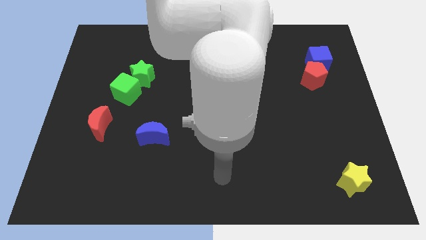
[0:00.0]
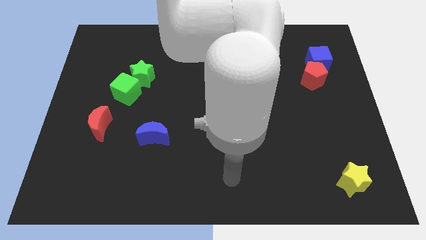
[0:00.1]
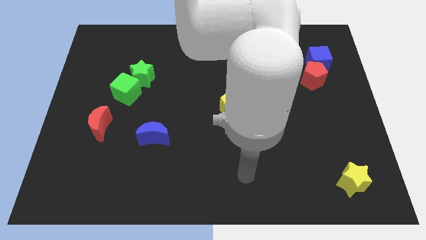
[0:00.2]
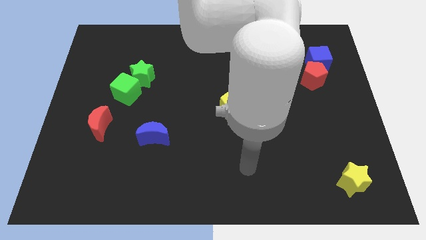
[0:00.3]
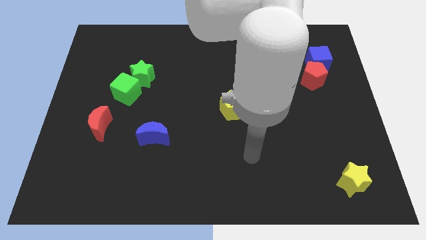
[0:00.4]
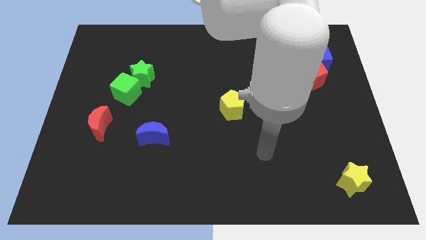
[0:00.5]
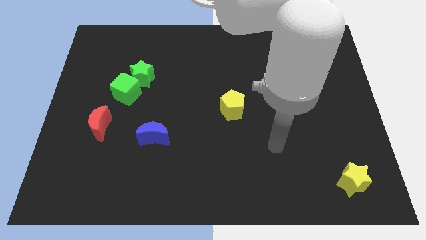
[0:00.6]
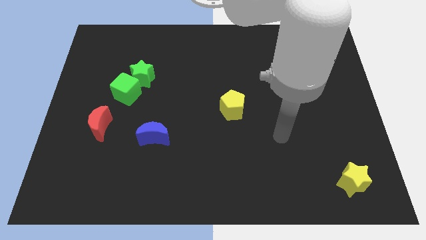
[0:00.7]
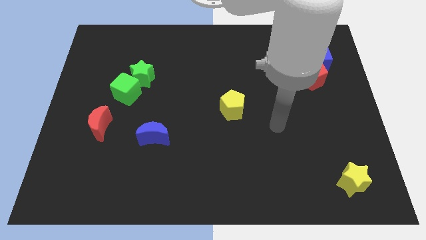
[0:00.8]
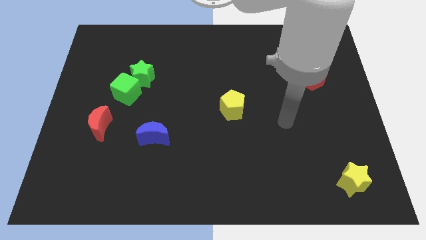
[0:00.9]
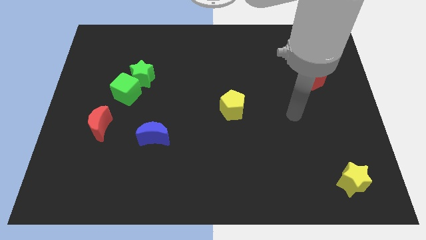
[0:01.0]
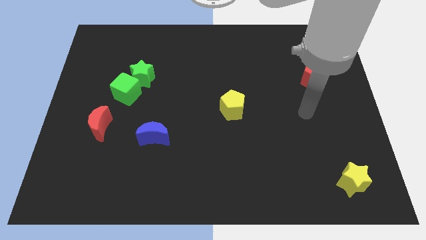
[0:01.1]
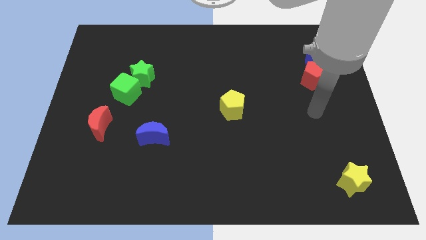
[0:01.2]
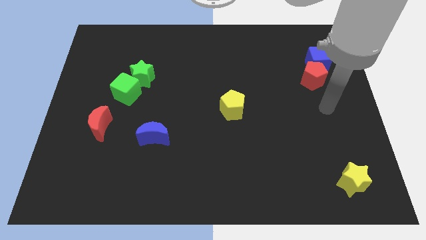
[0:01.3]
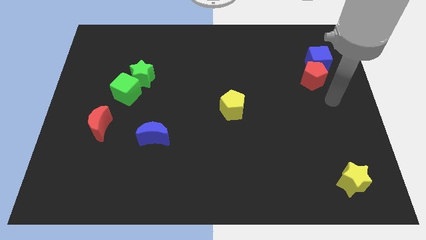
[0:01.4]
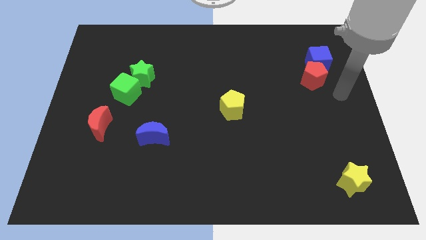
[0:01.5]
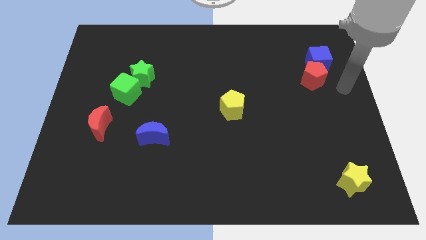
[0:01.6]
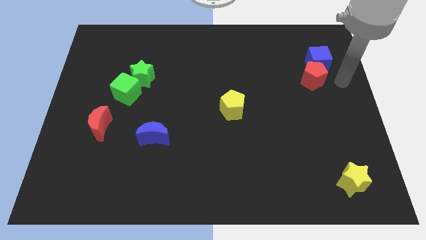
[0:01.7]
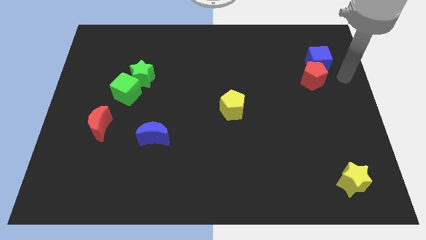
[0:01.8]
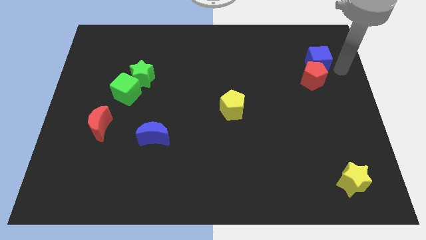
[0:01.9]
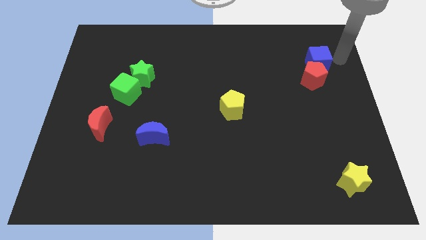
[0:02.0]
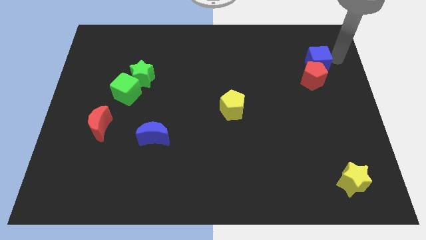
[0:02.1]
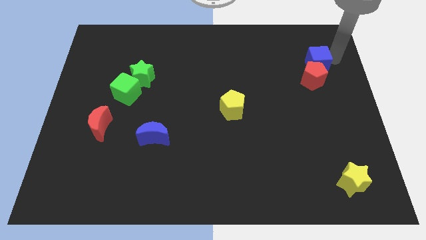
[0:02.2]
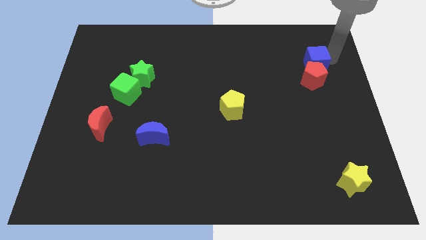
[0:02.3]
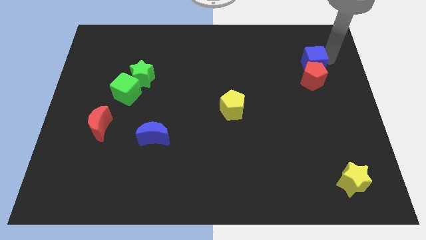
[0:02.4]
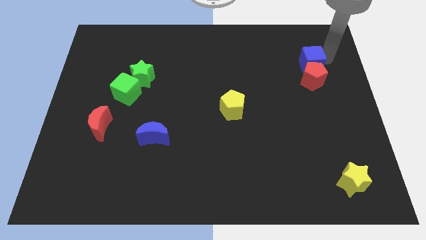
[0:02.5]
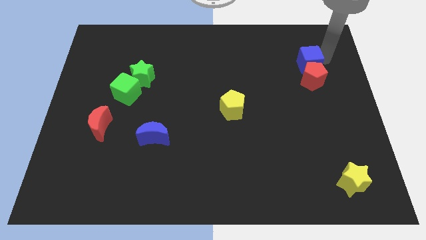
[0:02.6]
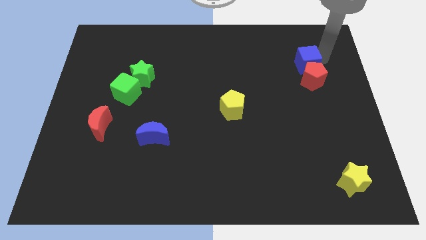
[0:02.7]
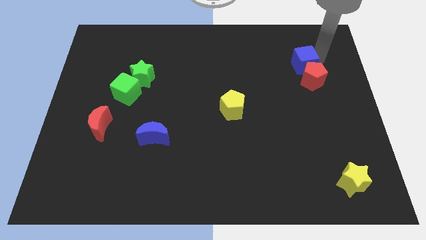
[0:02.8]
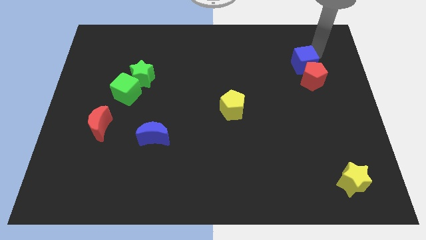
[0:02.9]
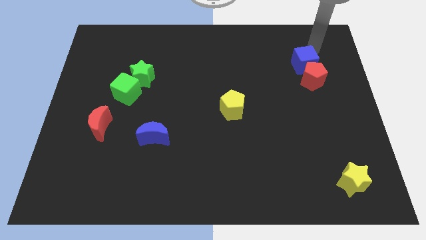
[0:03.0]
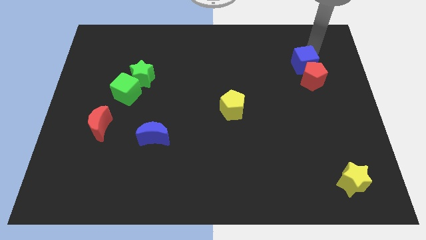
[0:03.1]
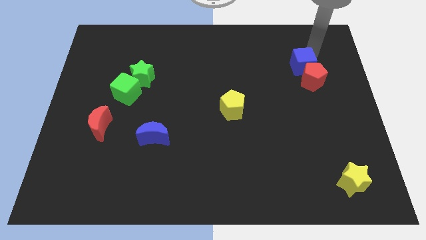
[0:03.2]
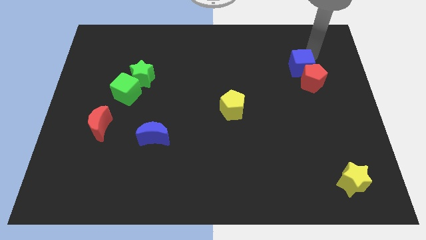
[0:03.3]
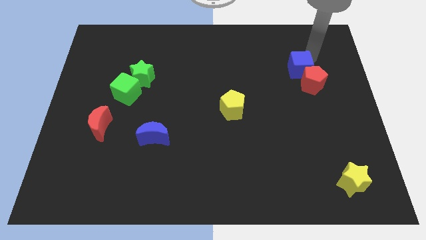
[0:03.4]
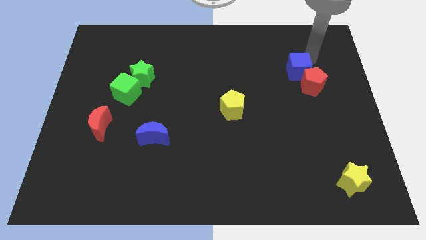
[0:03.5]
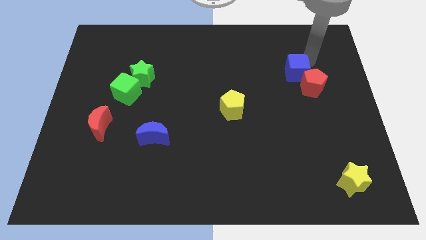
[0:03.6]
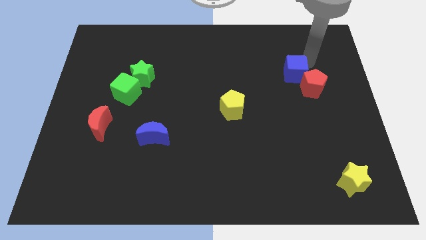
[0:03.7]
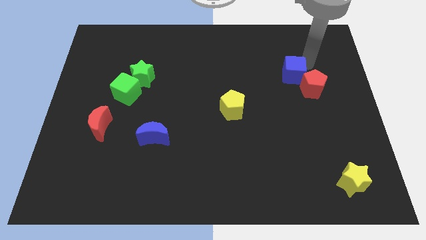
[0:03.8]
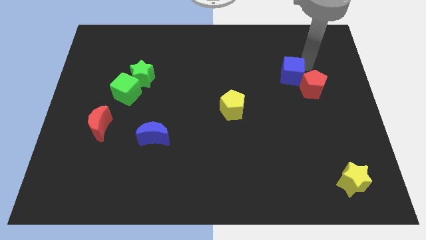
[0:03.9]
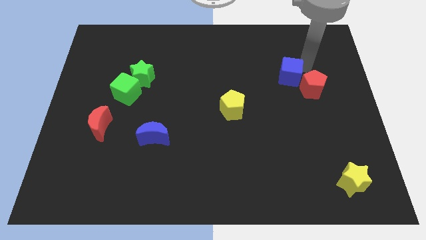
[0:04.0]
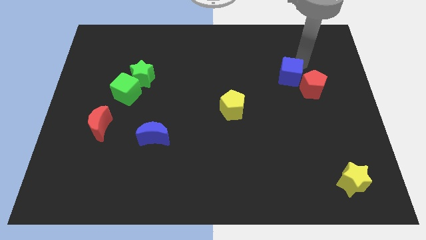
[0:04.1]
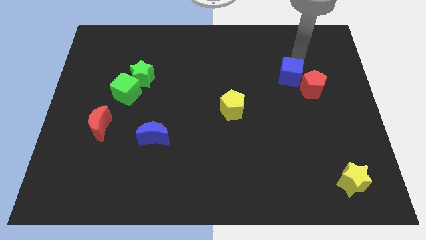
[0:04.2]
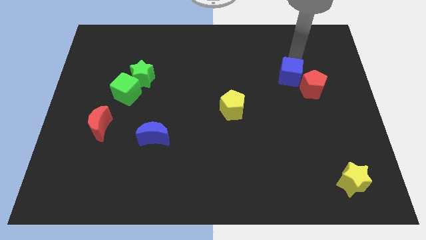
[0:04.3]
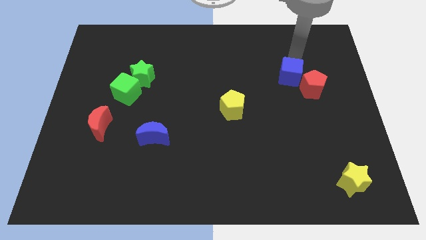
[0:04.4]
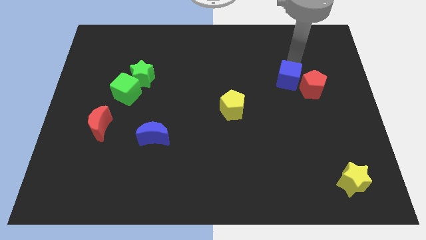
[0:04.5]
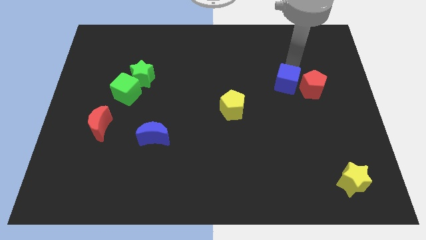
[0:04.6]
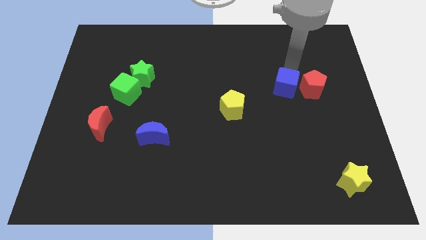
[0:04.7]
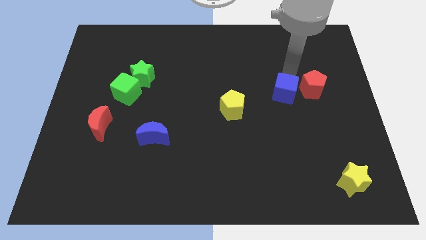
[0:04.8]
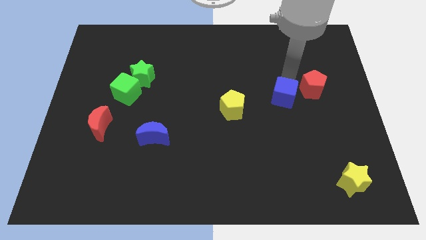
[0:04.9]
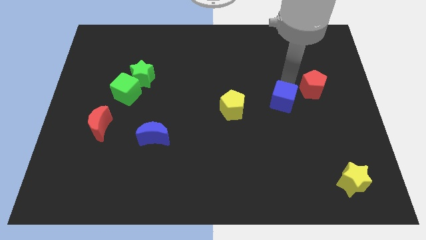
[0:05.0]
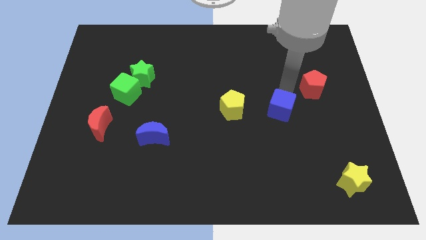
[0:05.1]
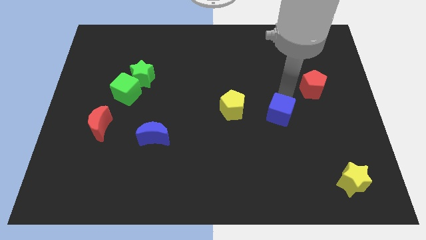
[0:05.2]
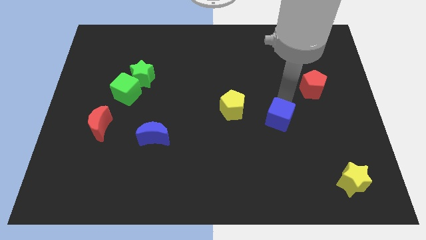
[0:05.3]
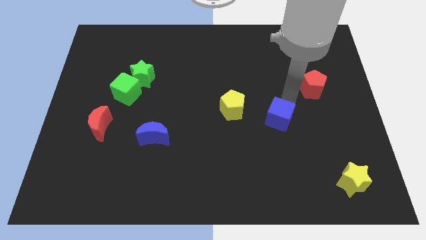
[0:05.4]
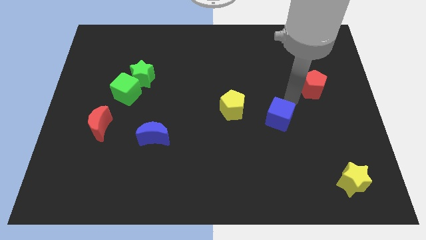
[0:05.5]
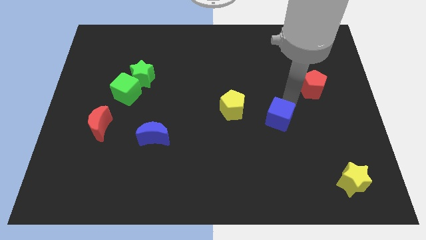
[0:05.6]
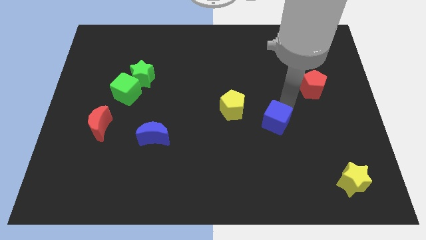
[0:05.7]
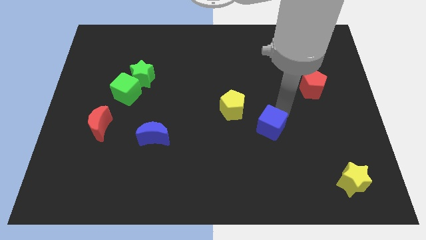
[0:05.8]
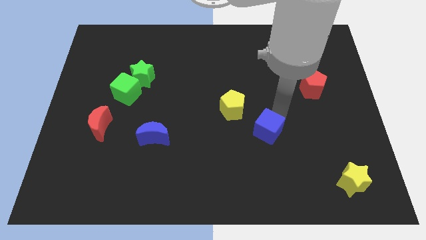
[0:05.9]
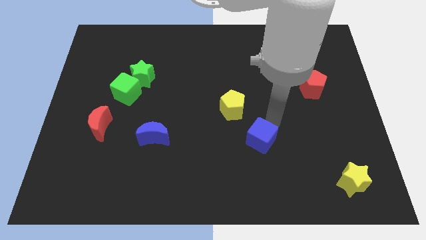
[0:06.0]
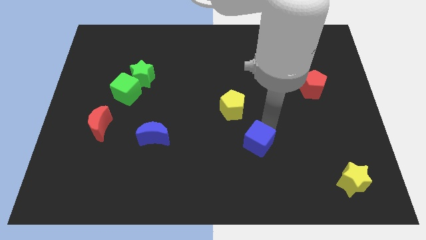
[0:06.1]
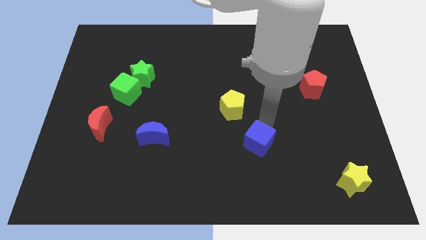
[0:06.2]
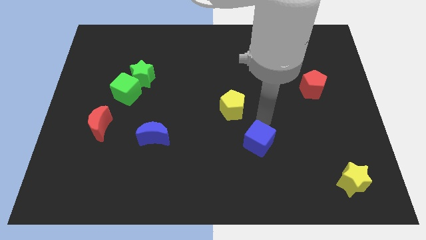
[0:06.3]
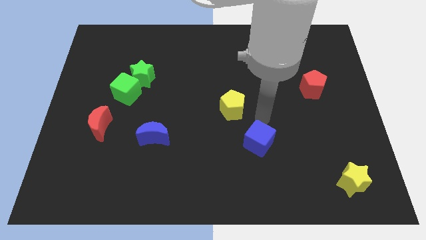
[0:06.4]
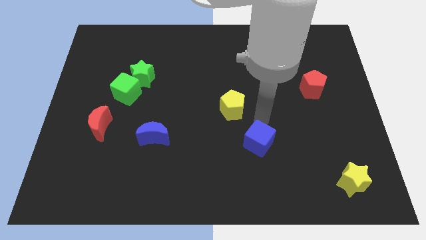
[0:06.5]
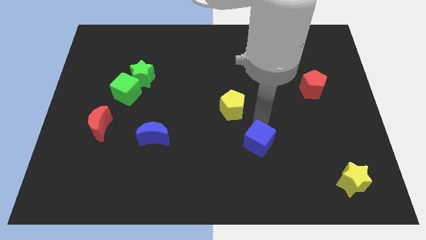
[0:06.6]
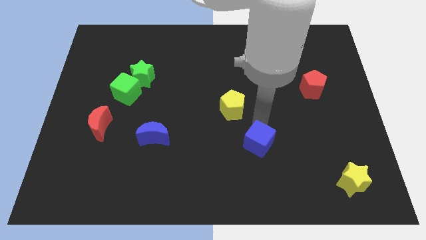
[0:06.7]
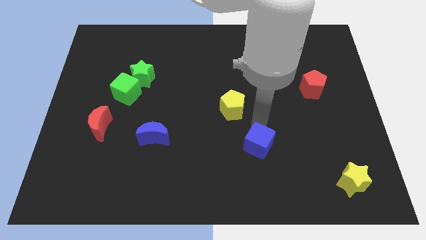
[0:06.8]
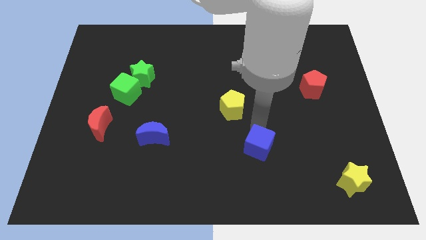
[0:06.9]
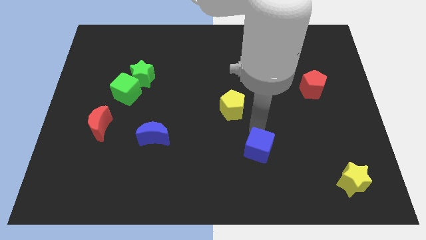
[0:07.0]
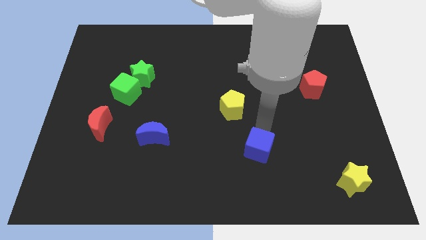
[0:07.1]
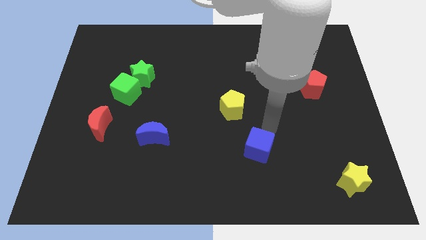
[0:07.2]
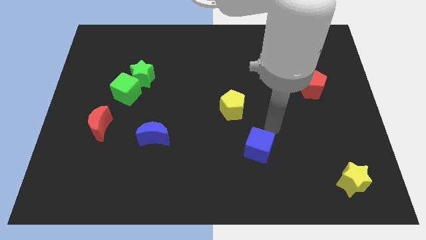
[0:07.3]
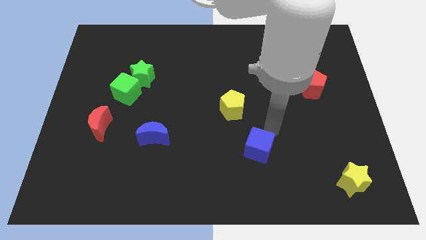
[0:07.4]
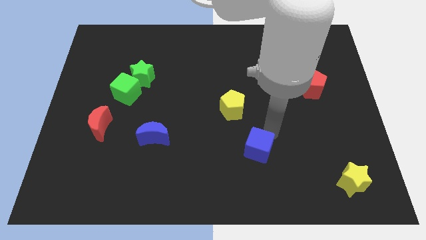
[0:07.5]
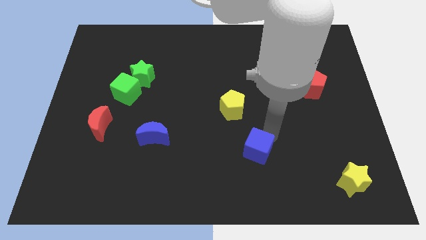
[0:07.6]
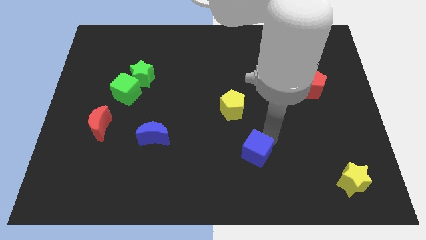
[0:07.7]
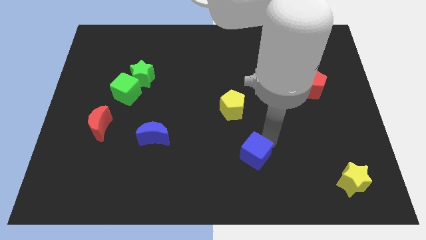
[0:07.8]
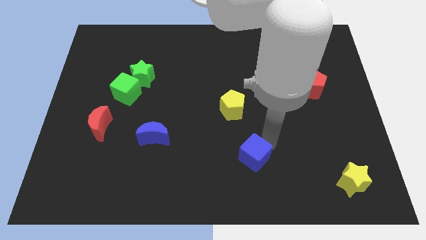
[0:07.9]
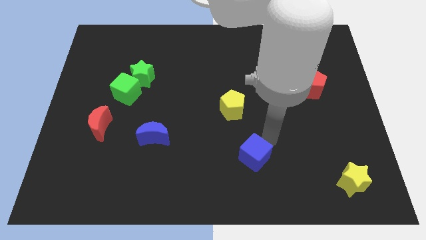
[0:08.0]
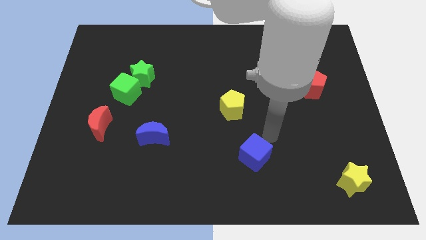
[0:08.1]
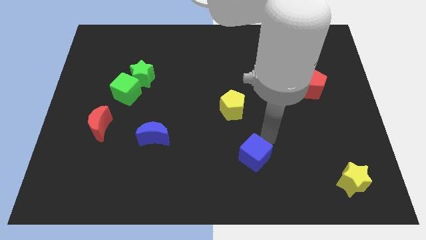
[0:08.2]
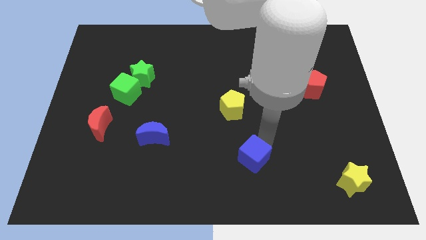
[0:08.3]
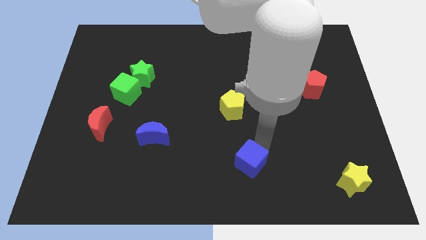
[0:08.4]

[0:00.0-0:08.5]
push the blue cube to the bottom
